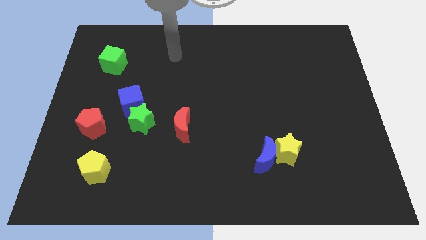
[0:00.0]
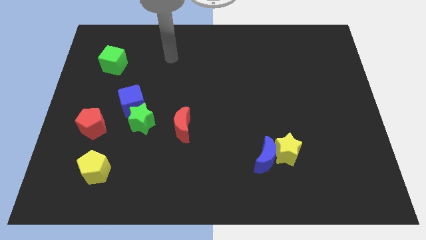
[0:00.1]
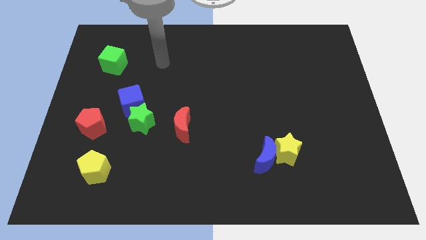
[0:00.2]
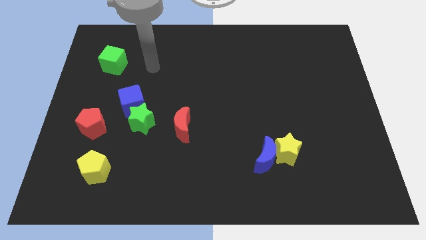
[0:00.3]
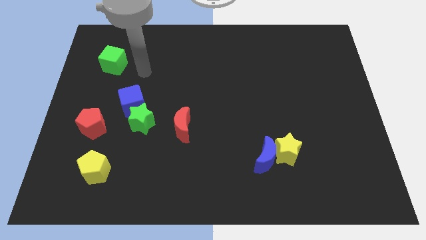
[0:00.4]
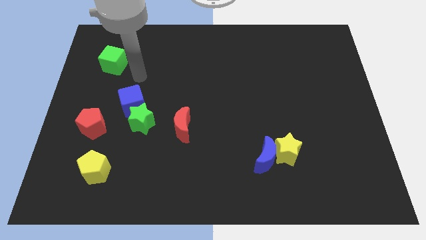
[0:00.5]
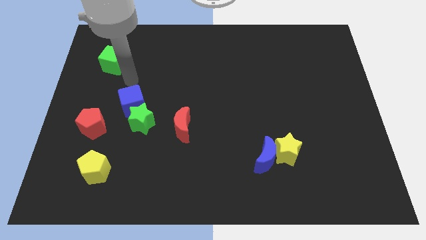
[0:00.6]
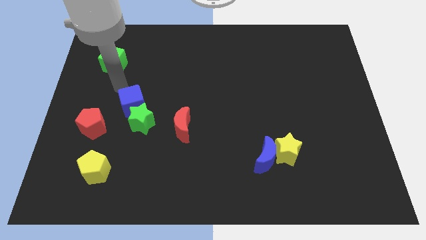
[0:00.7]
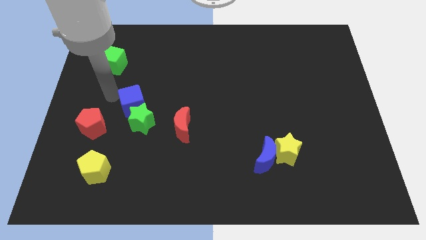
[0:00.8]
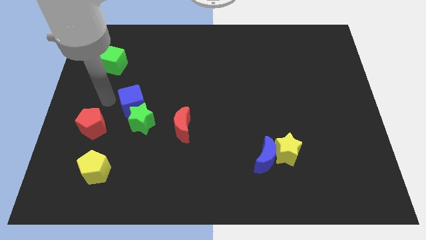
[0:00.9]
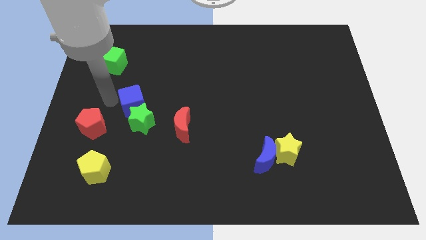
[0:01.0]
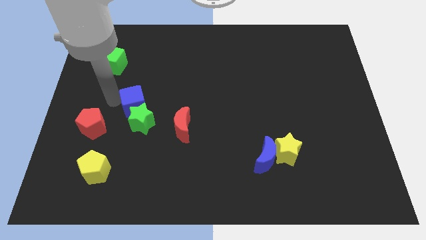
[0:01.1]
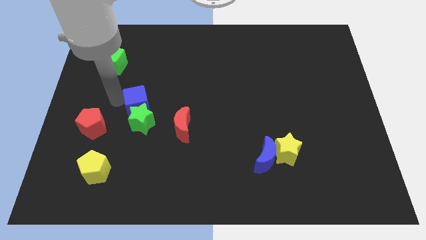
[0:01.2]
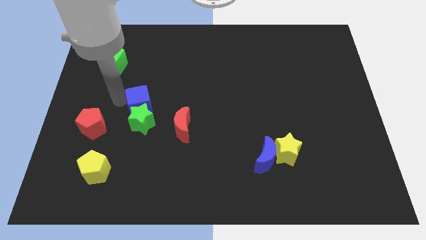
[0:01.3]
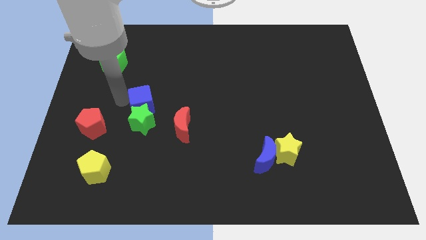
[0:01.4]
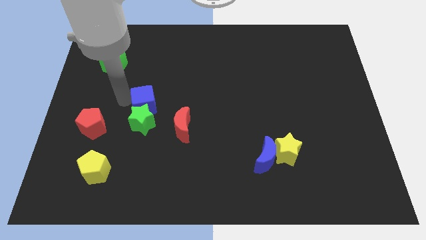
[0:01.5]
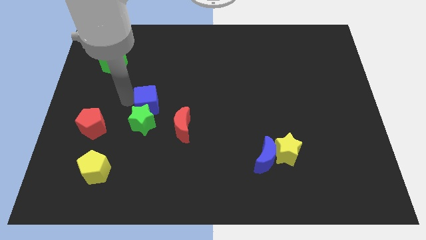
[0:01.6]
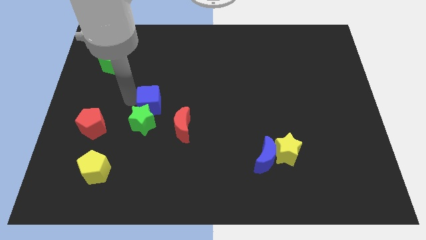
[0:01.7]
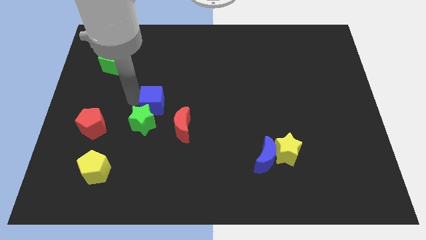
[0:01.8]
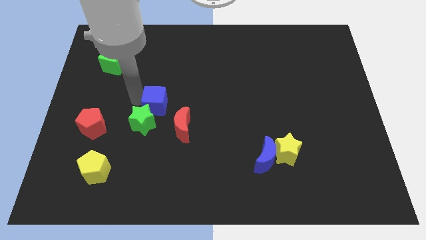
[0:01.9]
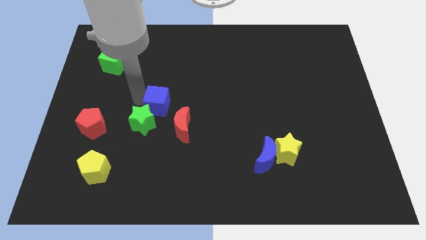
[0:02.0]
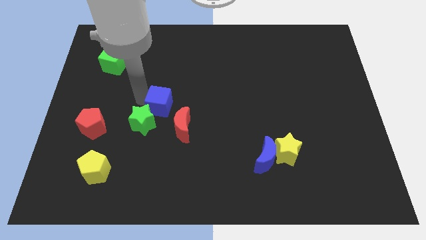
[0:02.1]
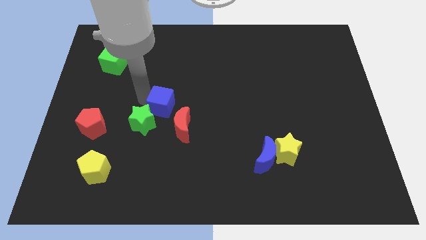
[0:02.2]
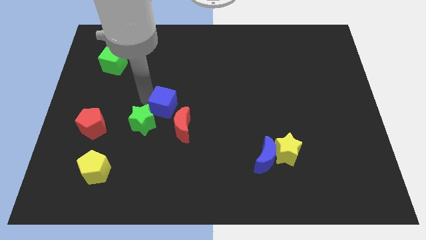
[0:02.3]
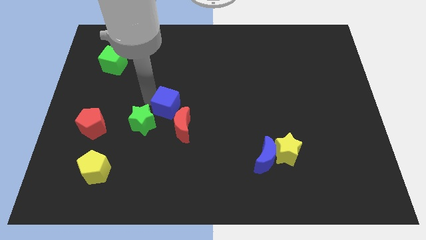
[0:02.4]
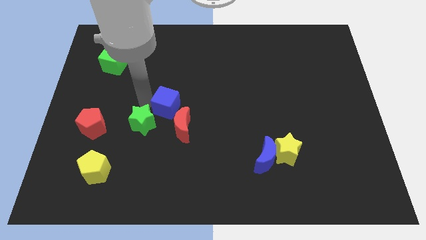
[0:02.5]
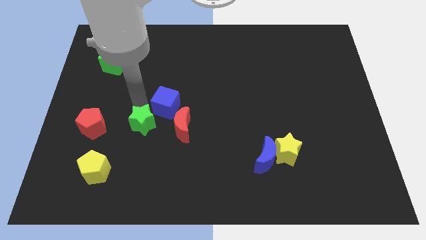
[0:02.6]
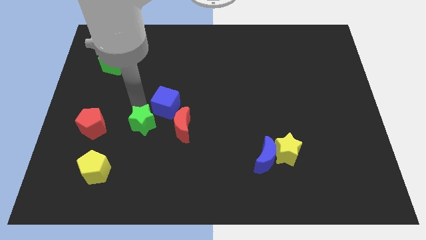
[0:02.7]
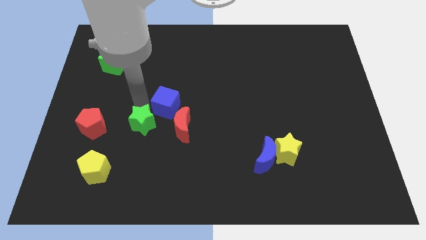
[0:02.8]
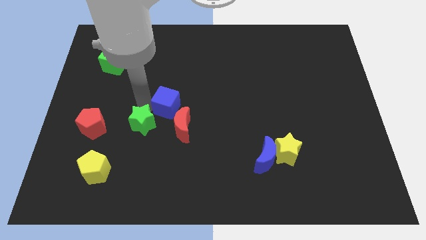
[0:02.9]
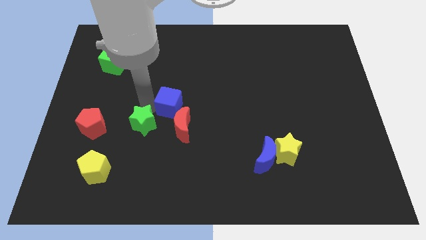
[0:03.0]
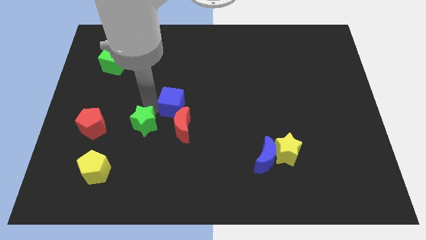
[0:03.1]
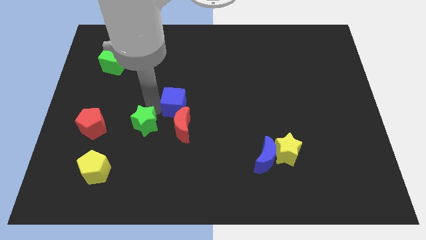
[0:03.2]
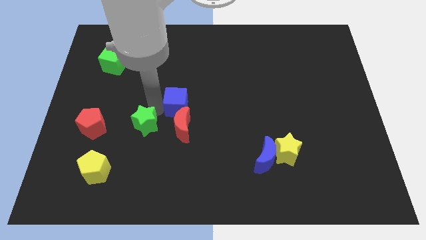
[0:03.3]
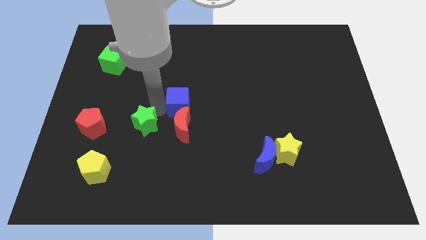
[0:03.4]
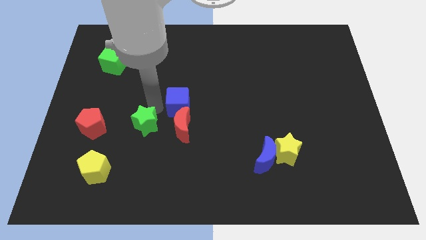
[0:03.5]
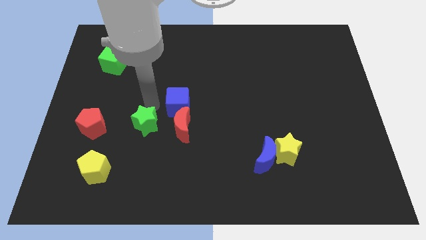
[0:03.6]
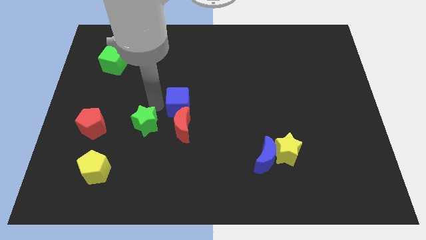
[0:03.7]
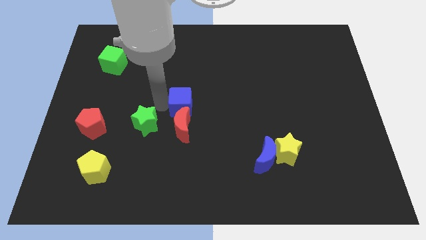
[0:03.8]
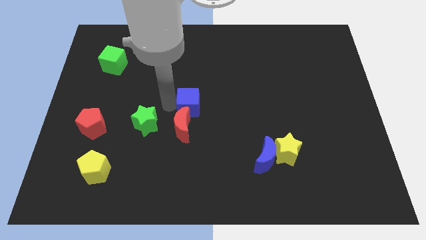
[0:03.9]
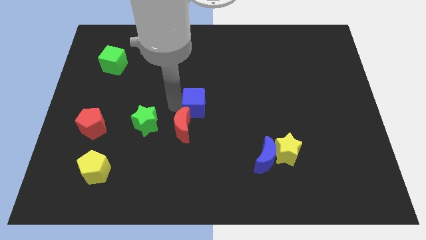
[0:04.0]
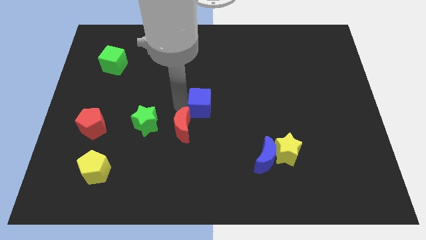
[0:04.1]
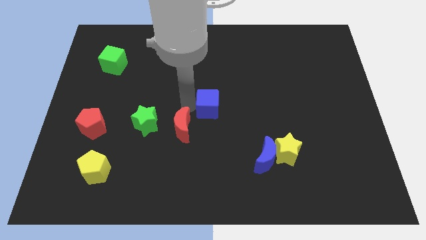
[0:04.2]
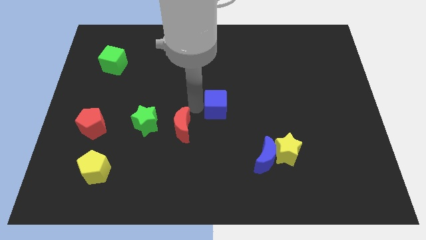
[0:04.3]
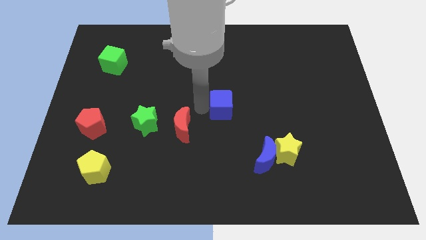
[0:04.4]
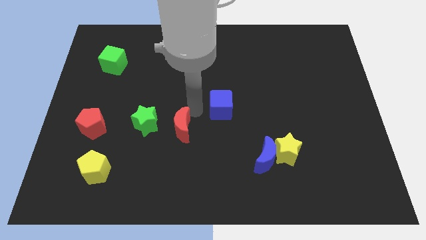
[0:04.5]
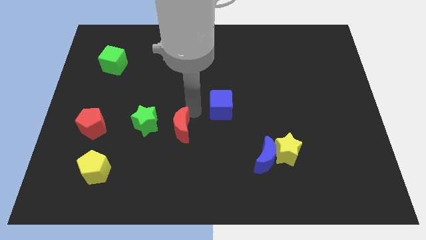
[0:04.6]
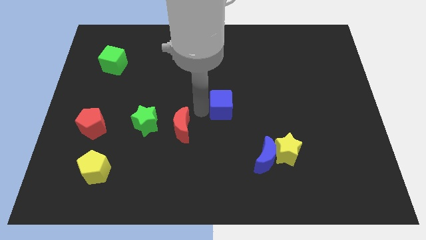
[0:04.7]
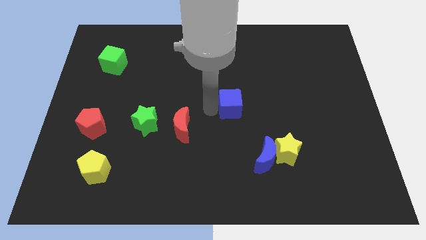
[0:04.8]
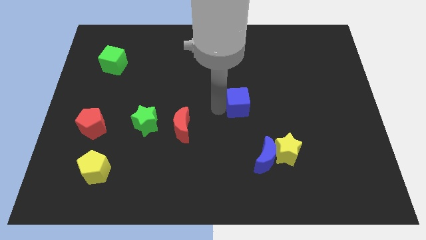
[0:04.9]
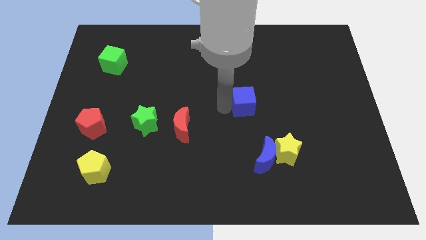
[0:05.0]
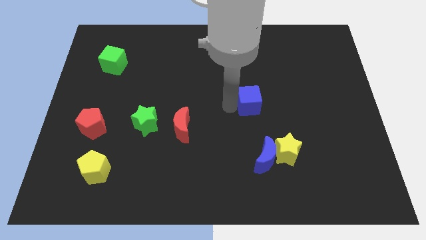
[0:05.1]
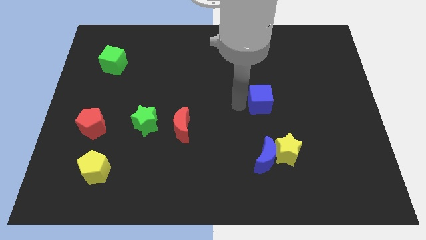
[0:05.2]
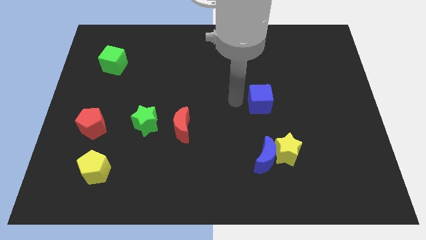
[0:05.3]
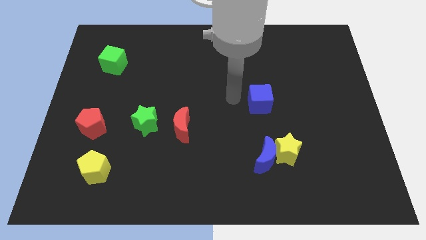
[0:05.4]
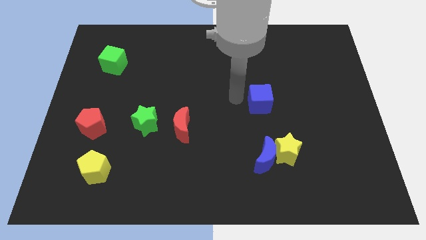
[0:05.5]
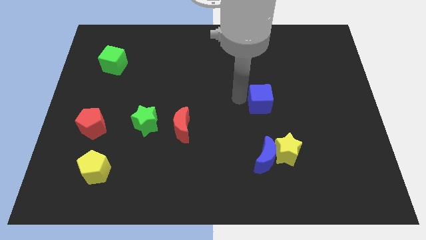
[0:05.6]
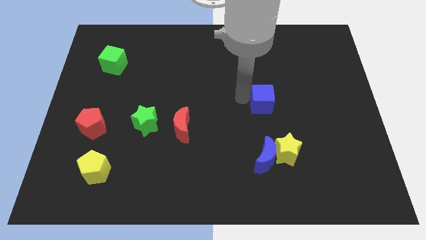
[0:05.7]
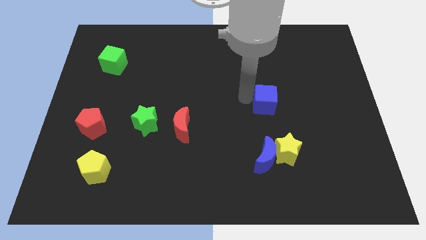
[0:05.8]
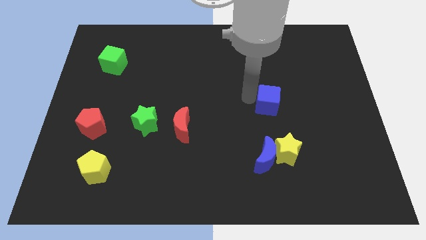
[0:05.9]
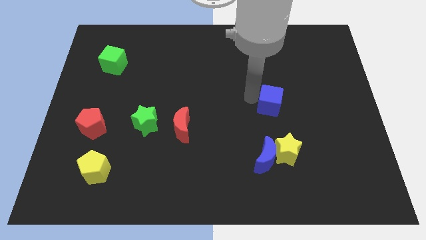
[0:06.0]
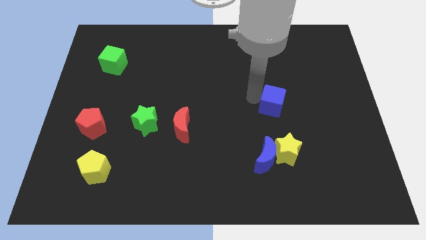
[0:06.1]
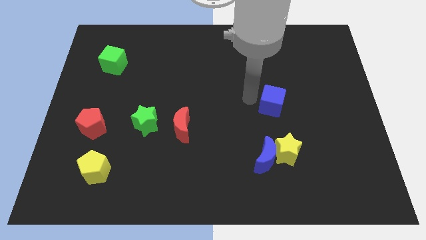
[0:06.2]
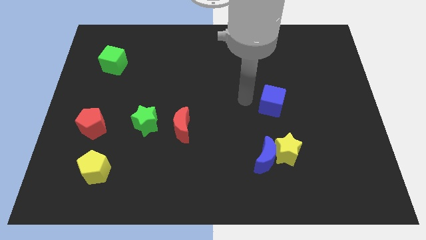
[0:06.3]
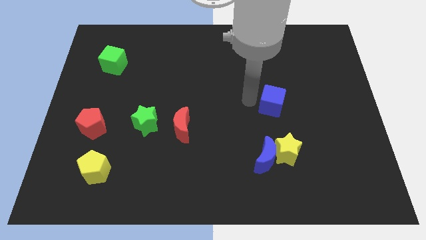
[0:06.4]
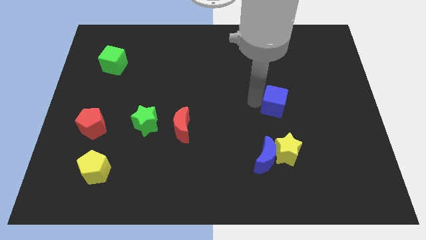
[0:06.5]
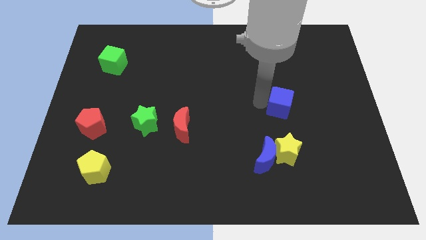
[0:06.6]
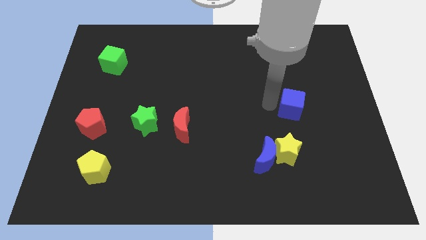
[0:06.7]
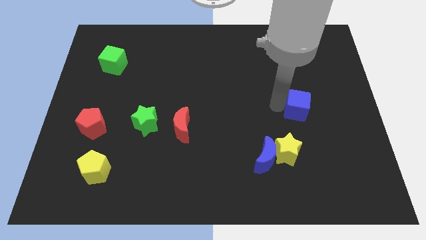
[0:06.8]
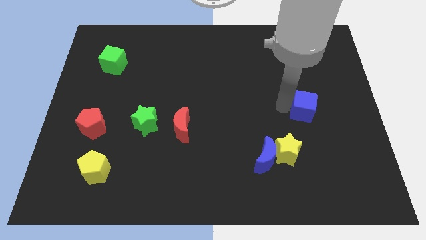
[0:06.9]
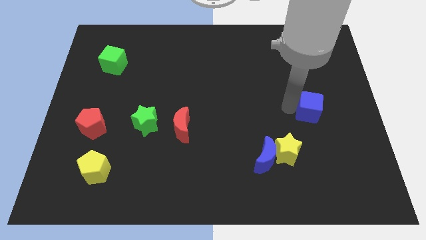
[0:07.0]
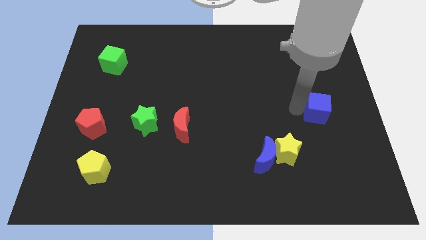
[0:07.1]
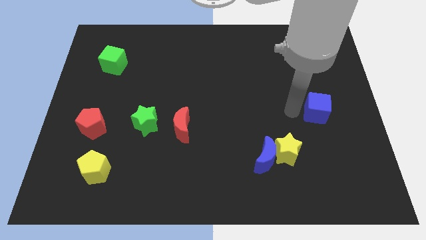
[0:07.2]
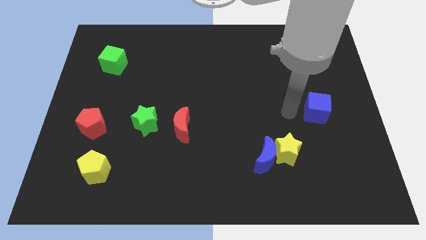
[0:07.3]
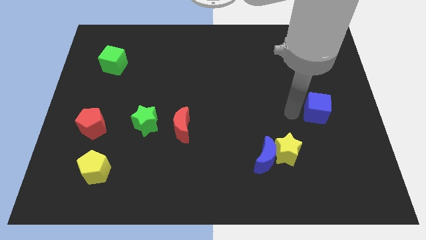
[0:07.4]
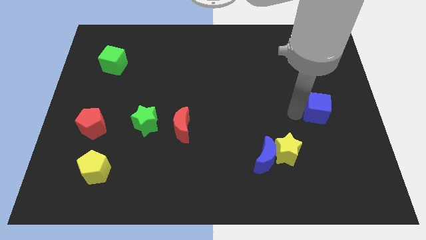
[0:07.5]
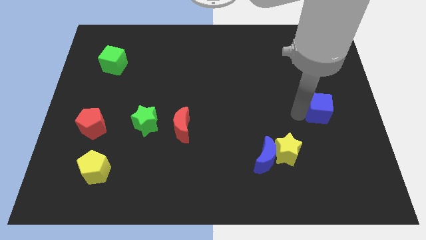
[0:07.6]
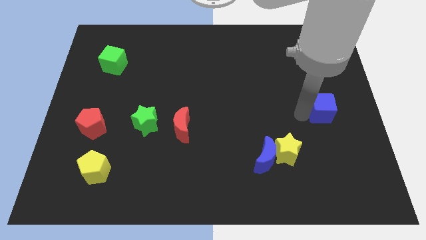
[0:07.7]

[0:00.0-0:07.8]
put the blue cube to the right side
